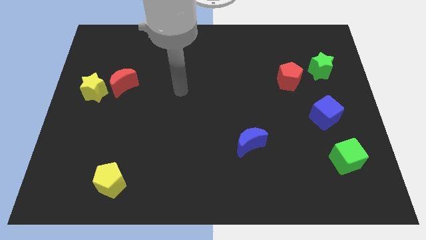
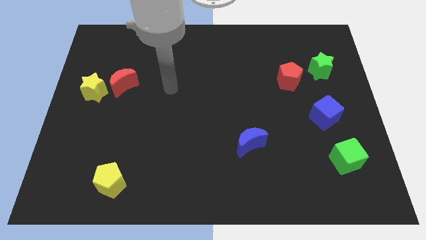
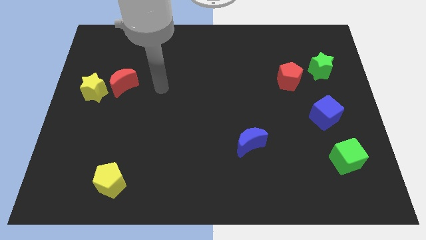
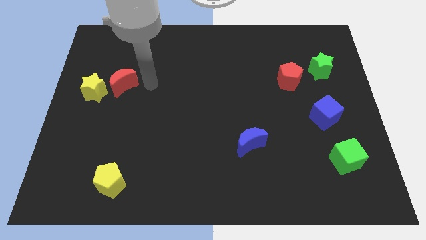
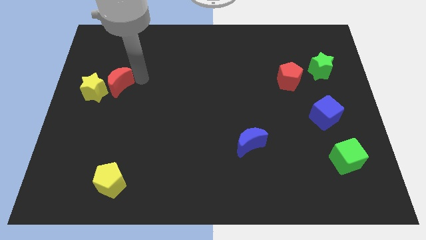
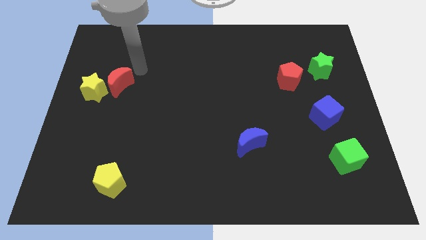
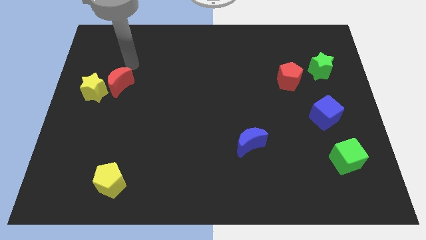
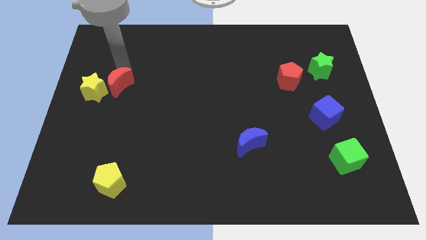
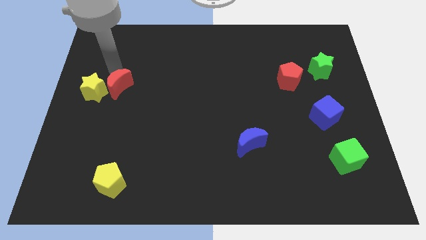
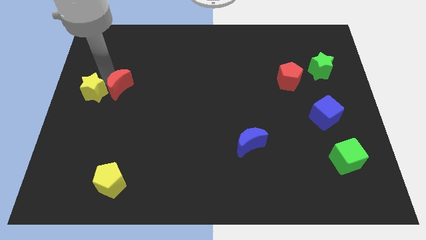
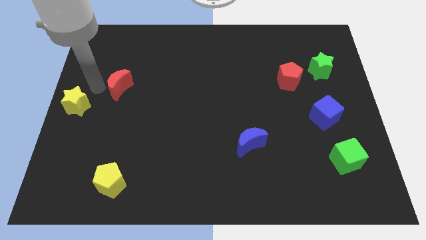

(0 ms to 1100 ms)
separate the red moon from the yellow star

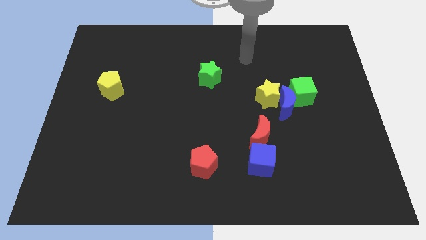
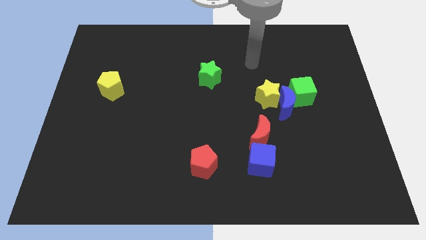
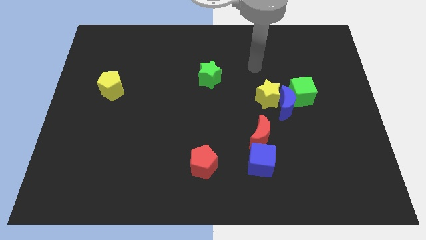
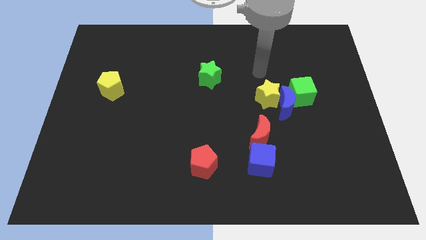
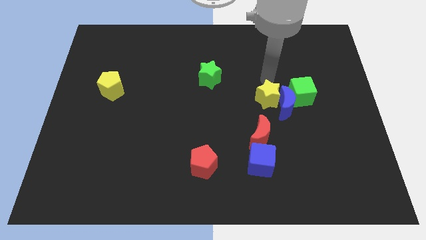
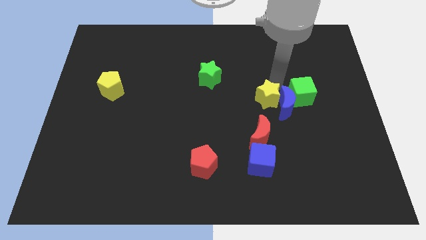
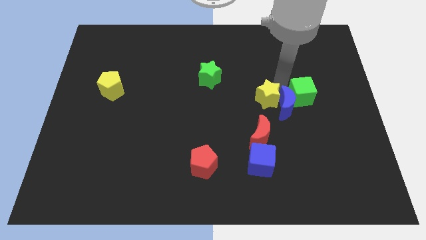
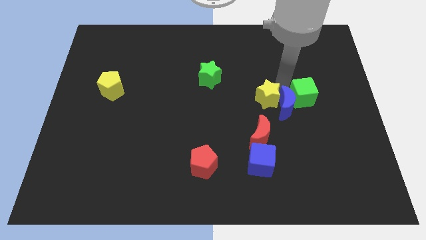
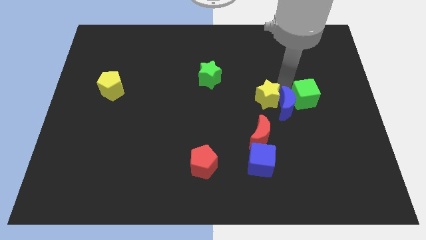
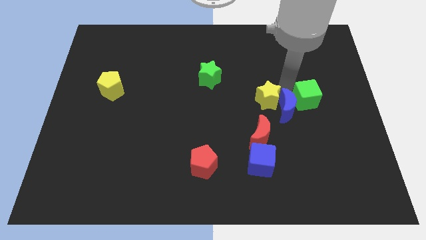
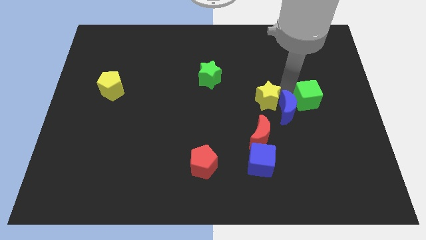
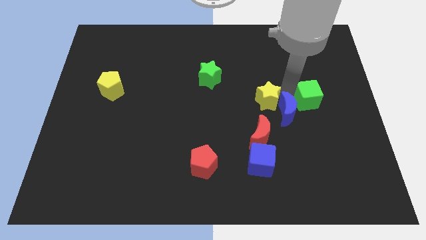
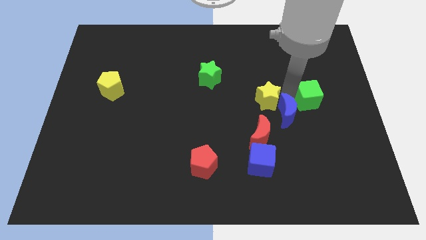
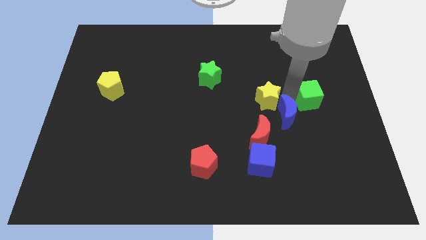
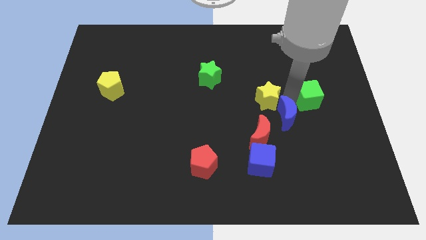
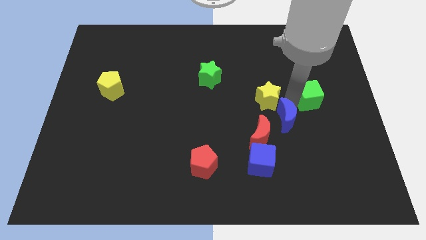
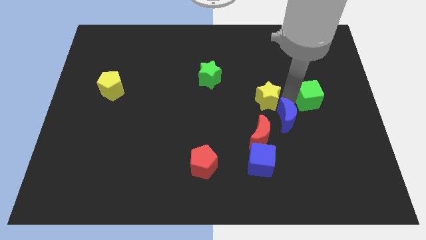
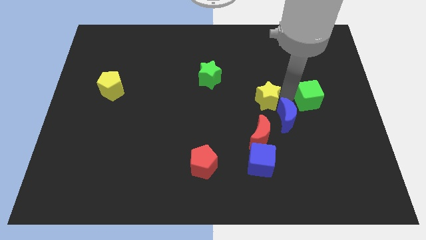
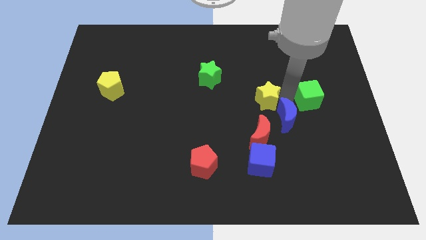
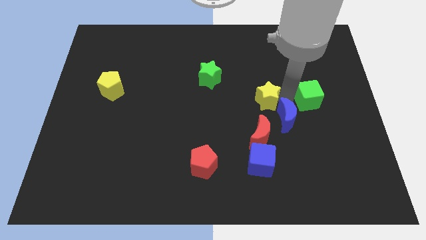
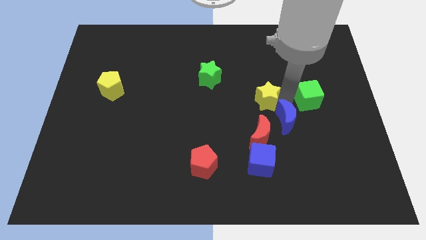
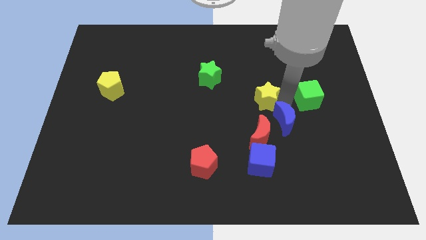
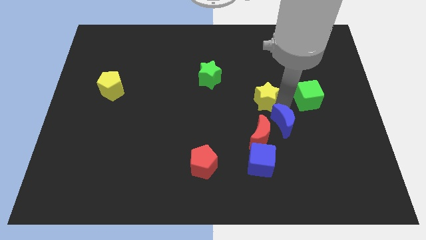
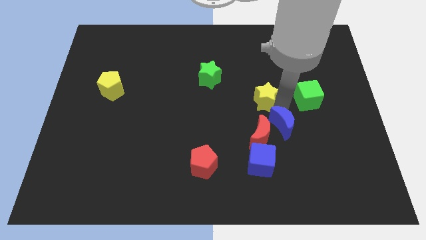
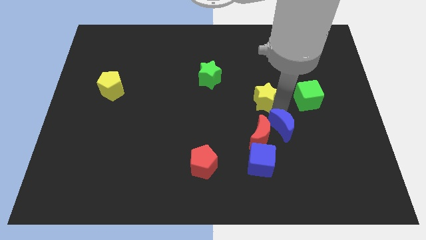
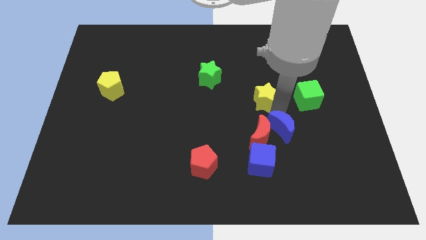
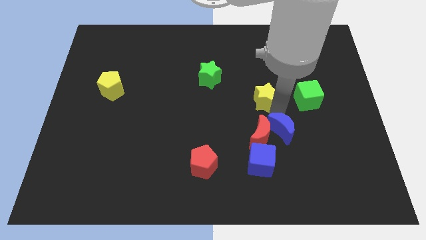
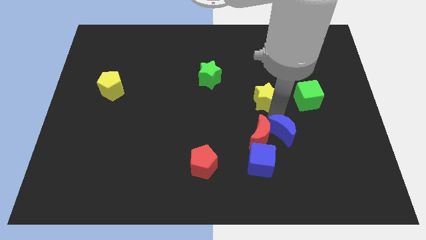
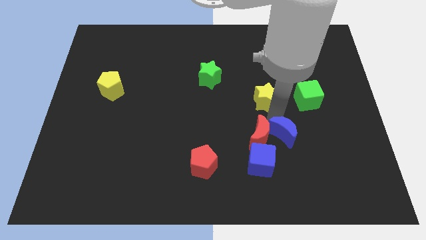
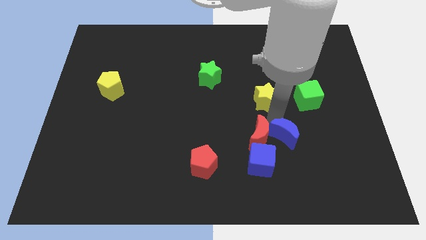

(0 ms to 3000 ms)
move the blue moon away from the yellow star and green cube

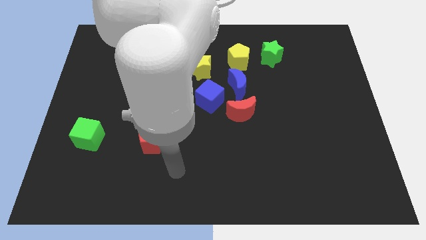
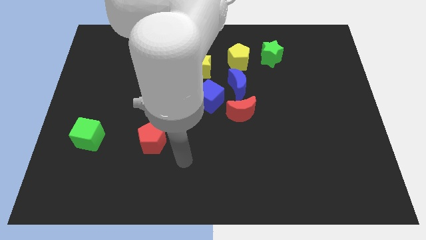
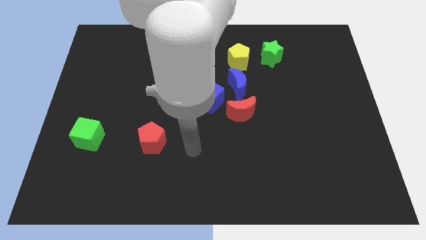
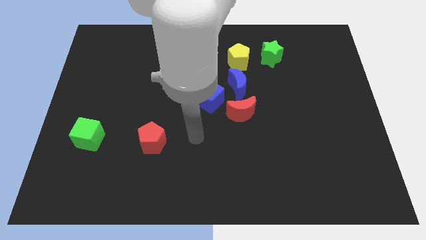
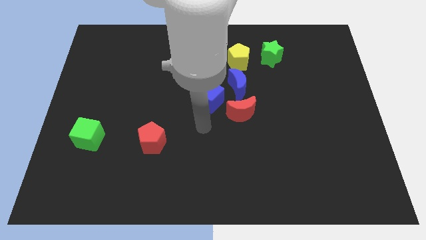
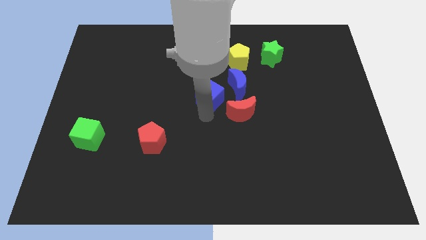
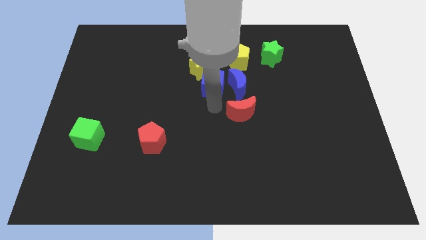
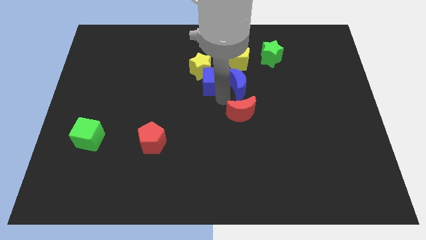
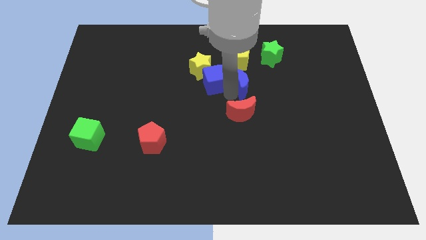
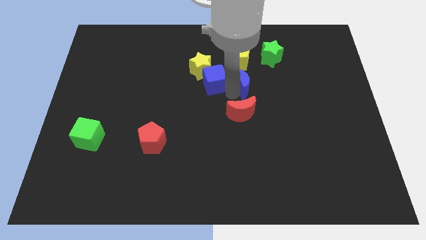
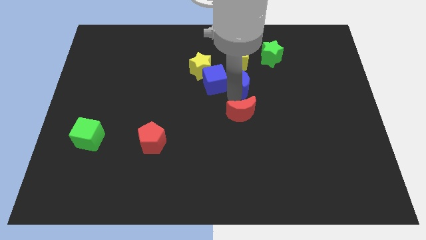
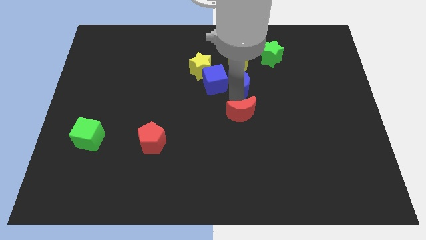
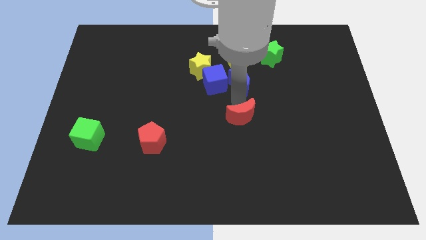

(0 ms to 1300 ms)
pull the red moon apart from the blue moon and blue cube

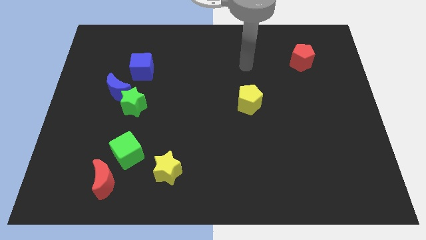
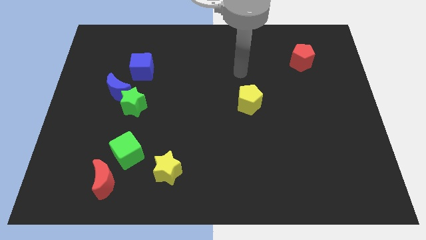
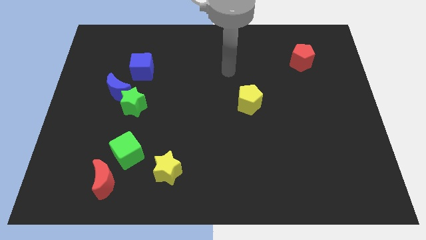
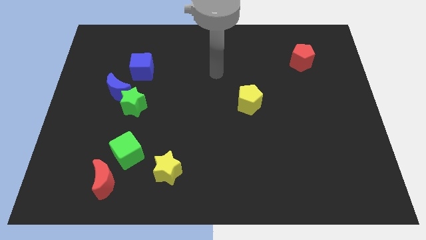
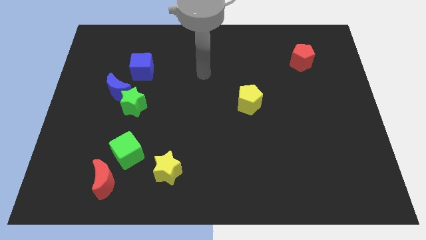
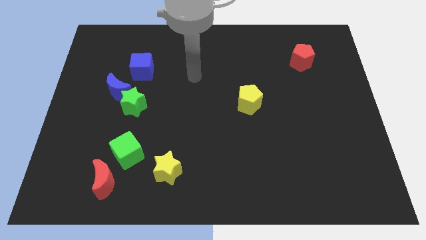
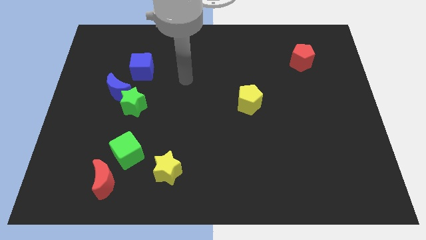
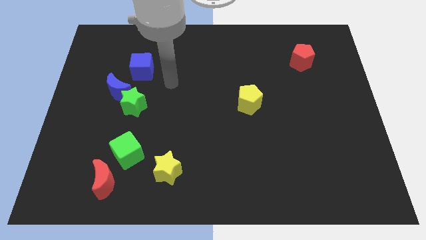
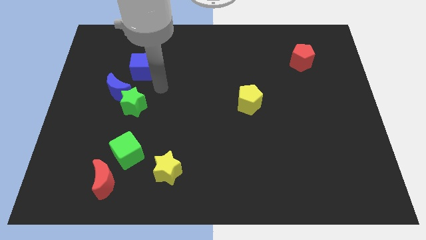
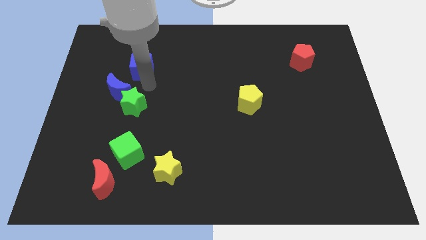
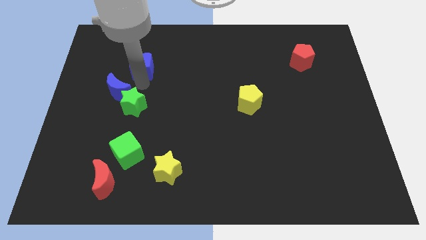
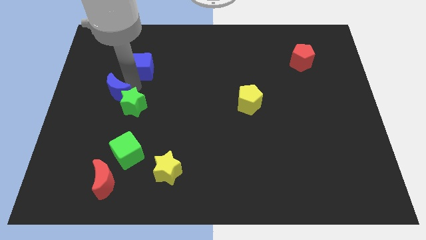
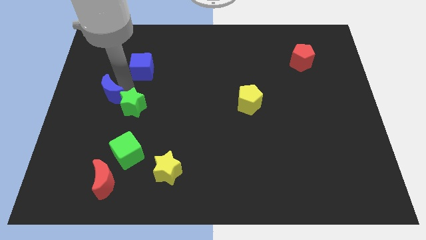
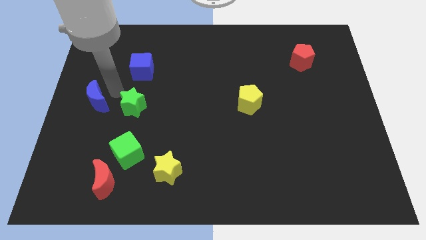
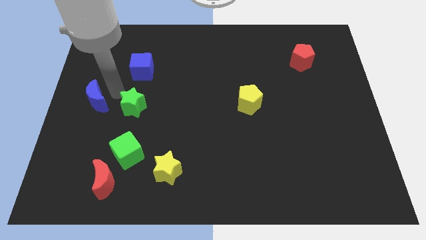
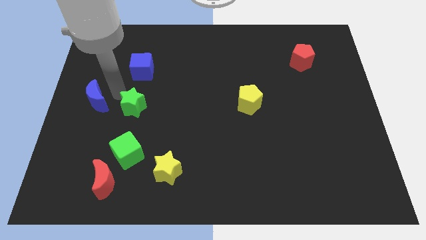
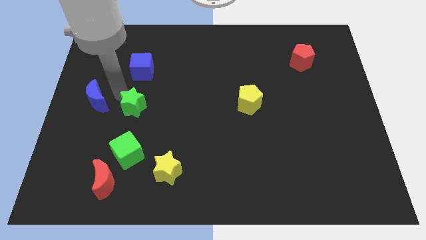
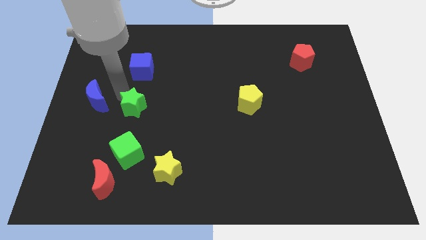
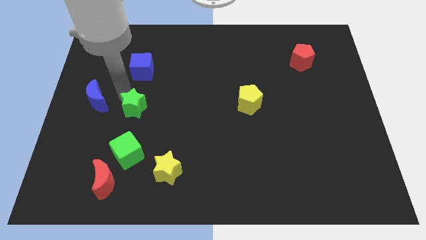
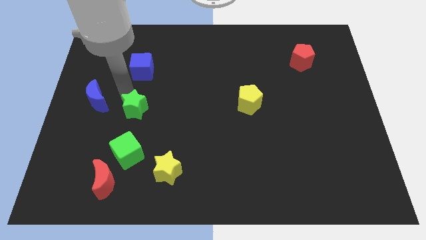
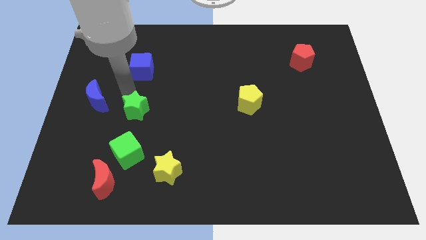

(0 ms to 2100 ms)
move the green star away from the blue moon

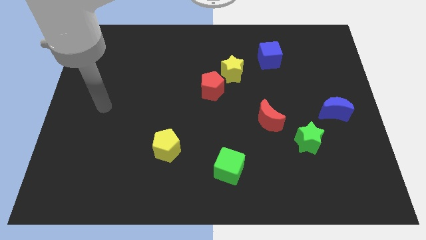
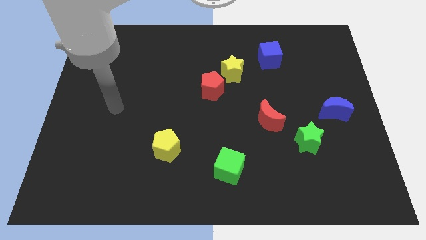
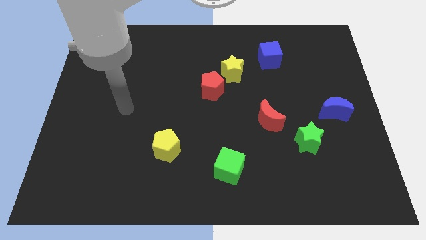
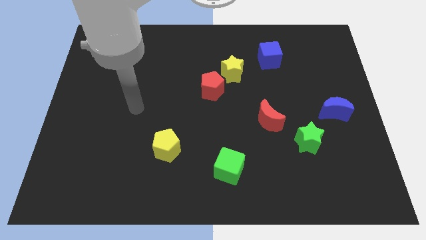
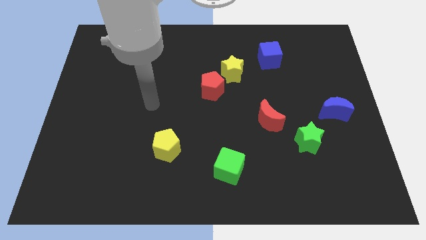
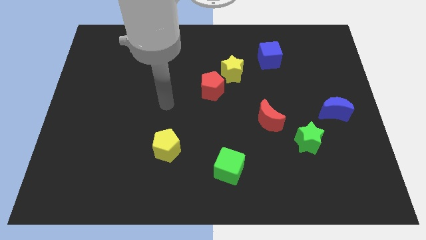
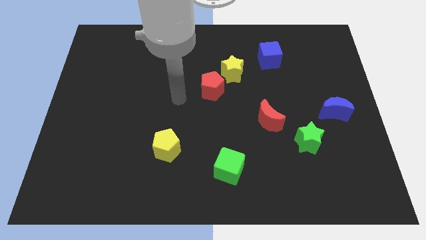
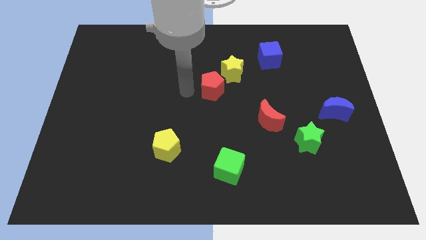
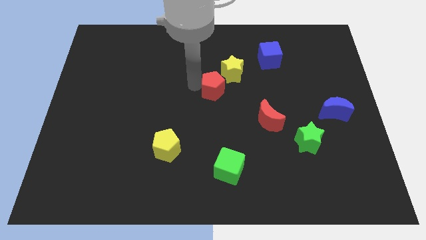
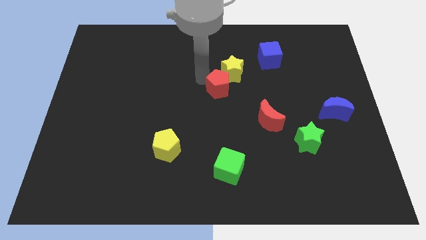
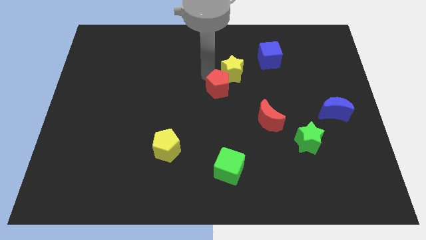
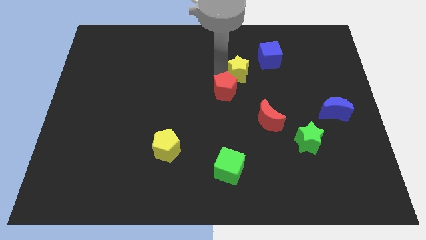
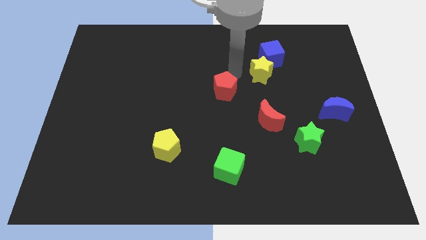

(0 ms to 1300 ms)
separate the red pentagon from the yellow star

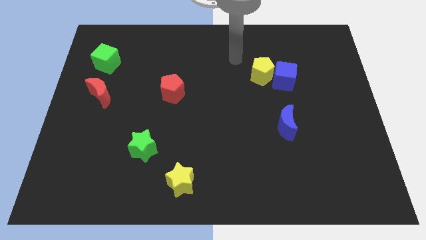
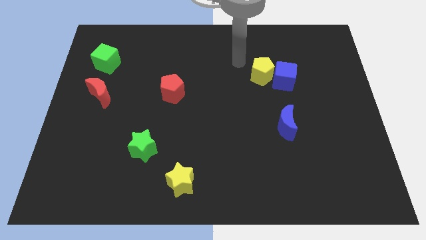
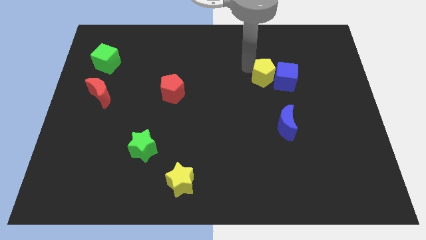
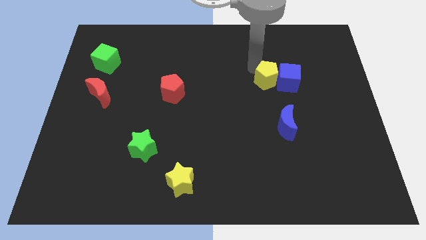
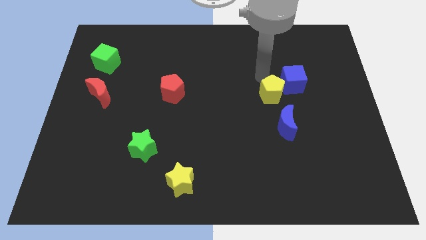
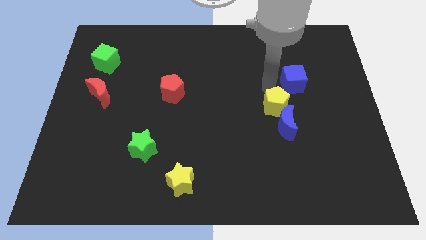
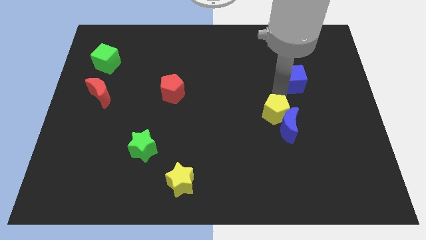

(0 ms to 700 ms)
move the blue cube away from the yellow pentagon
